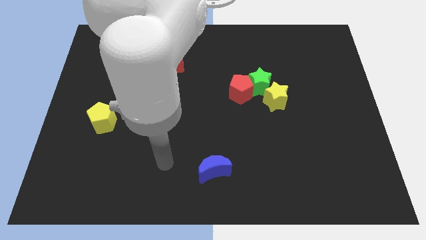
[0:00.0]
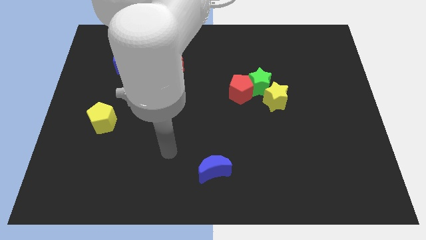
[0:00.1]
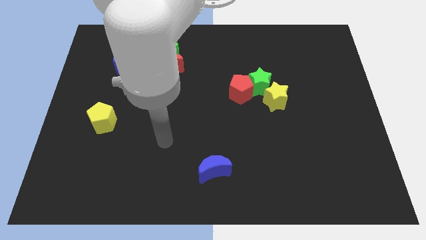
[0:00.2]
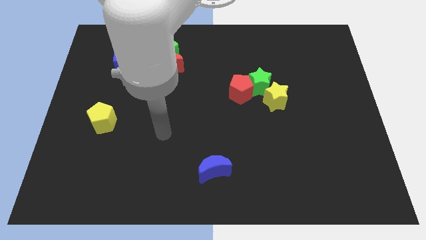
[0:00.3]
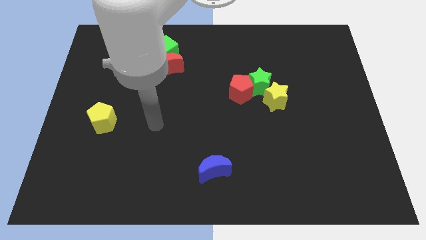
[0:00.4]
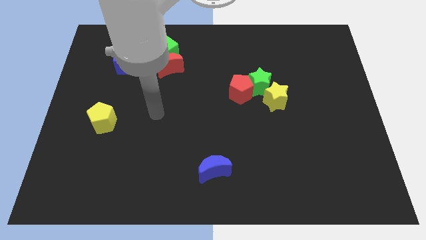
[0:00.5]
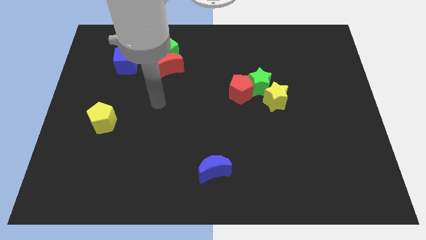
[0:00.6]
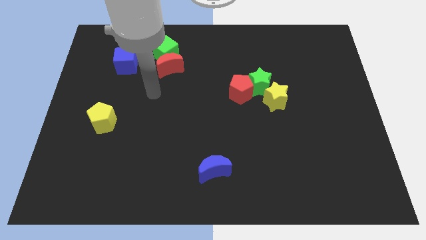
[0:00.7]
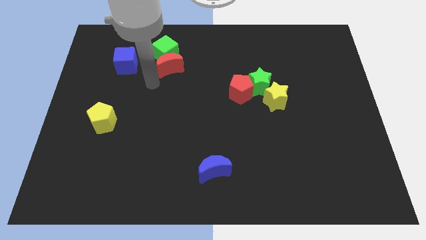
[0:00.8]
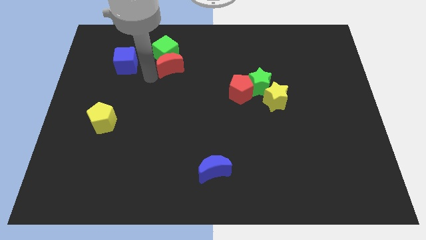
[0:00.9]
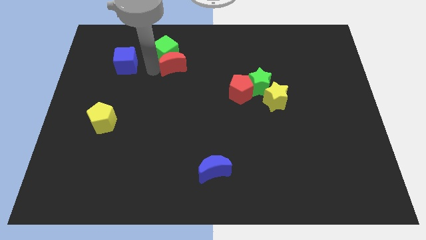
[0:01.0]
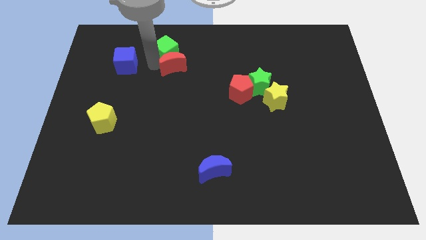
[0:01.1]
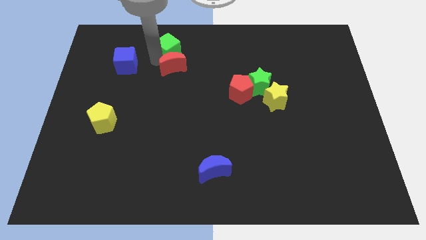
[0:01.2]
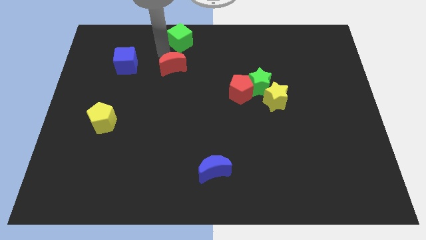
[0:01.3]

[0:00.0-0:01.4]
pull the red moon apart from the green cube

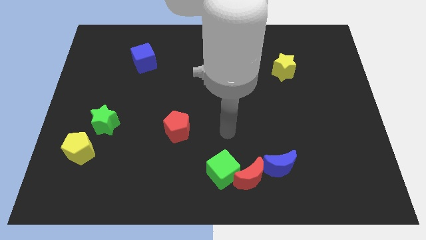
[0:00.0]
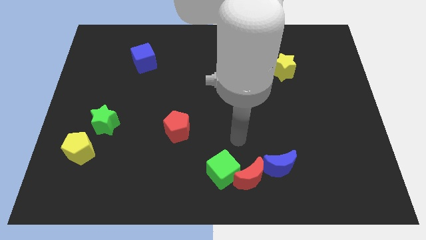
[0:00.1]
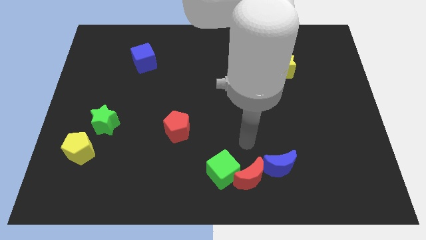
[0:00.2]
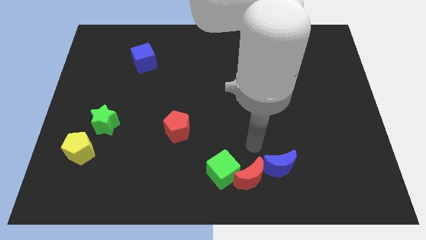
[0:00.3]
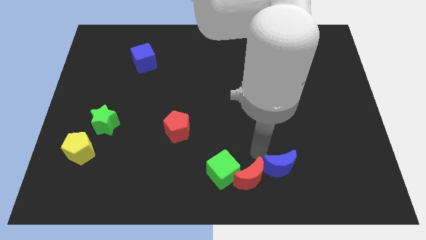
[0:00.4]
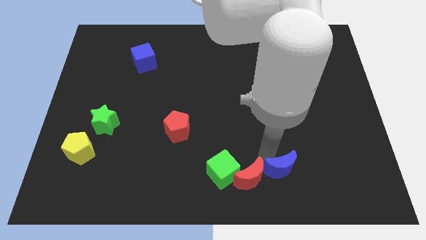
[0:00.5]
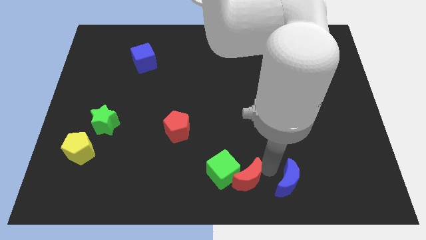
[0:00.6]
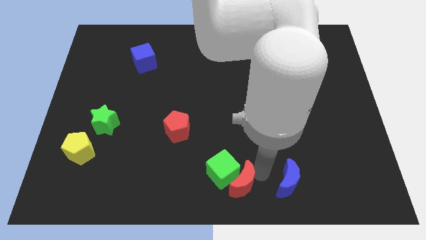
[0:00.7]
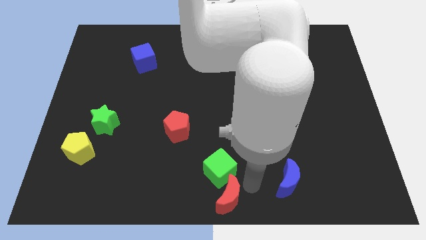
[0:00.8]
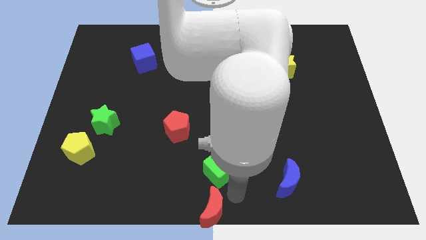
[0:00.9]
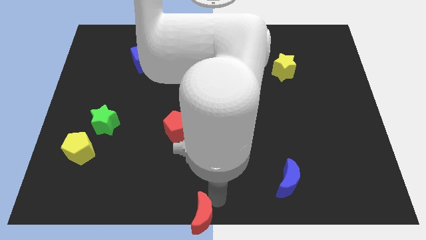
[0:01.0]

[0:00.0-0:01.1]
separate the green cube from the red moon

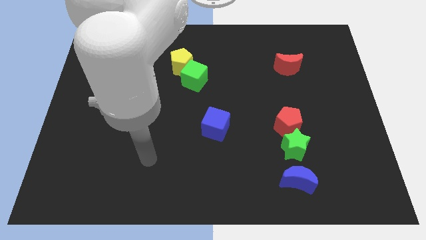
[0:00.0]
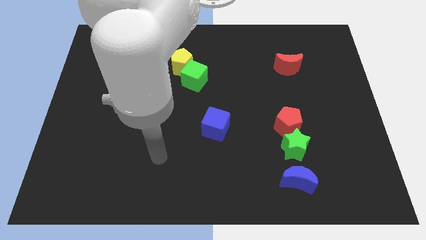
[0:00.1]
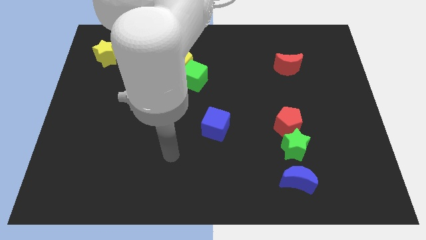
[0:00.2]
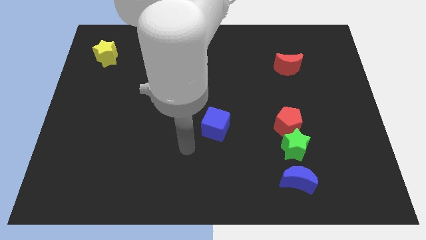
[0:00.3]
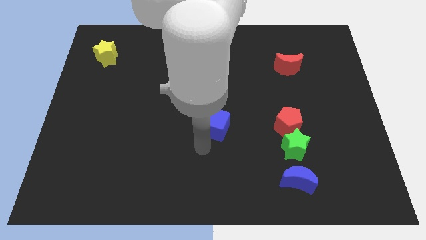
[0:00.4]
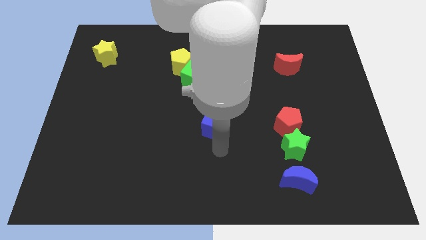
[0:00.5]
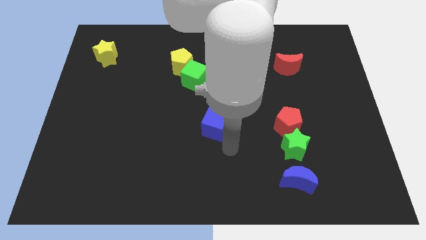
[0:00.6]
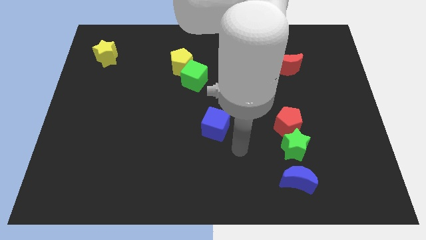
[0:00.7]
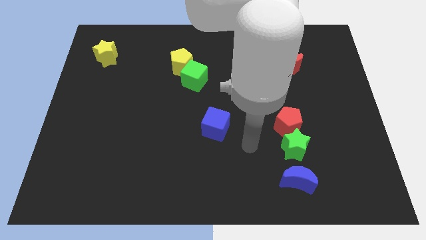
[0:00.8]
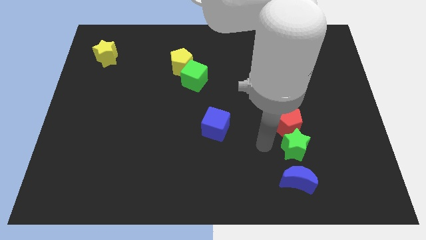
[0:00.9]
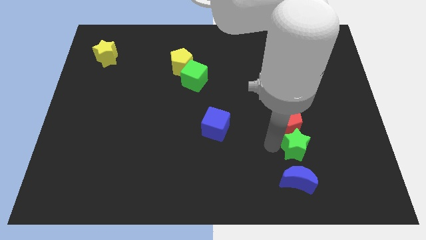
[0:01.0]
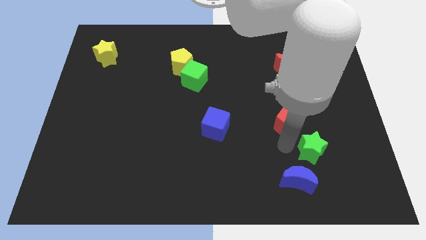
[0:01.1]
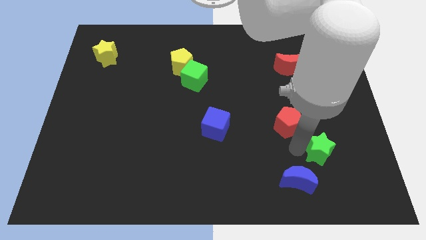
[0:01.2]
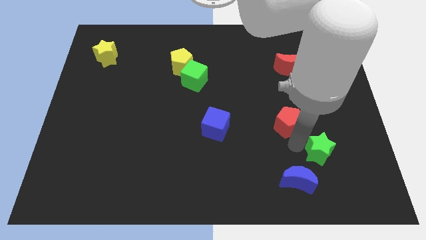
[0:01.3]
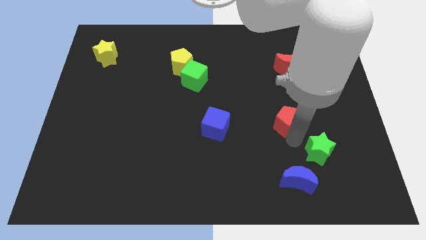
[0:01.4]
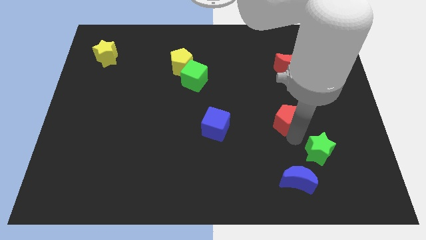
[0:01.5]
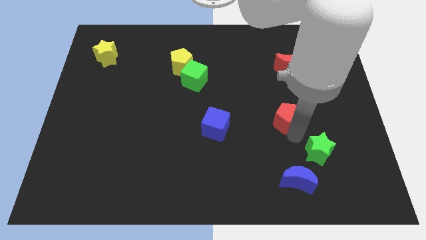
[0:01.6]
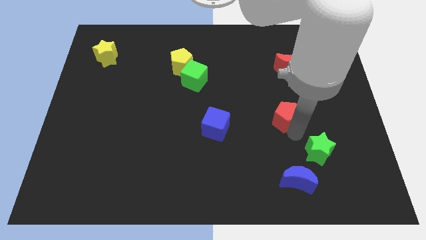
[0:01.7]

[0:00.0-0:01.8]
separate the red pentagon from the green star

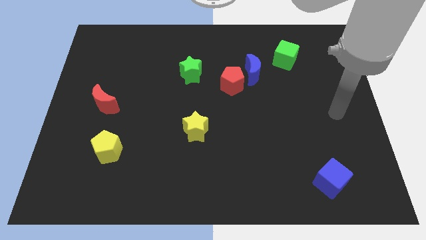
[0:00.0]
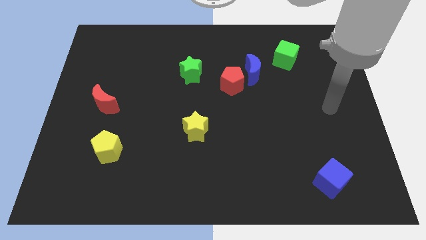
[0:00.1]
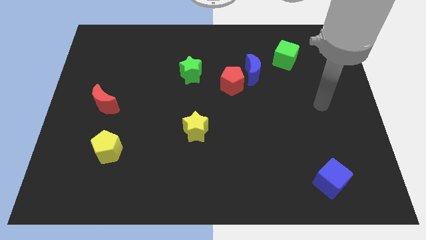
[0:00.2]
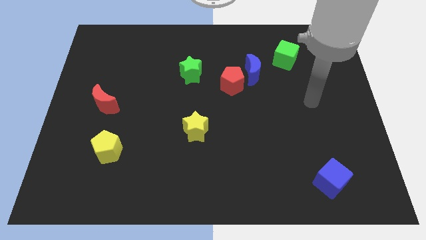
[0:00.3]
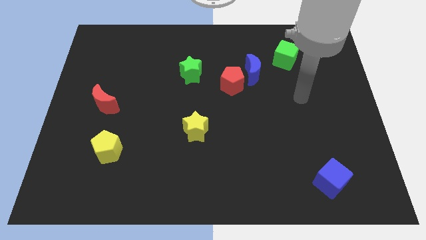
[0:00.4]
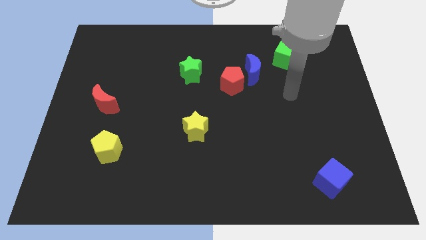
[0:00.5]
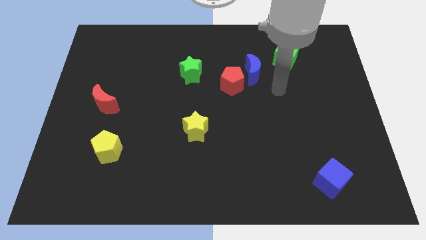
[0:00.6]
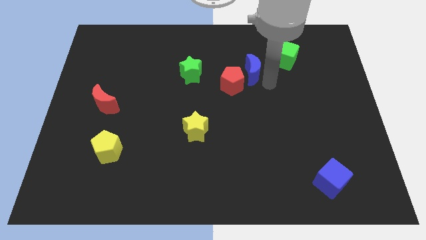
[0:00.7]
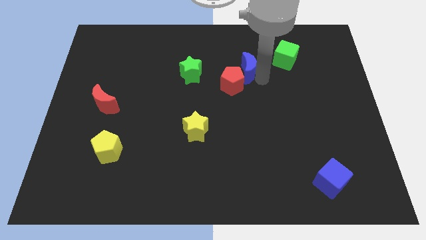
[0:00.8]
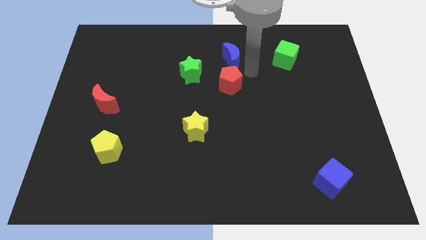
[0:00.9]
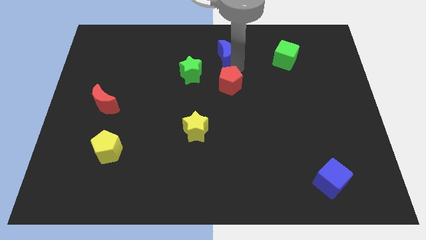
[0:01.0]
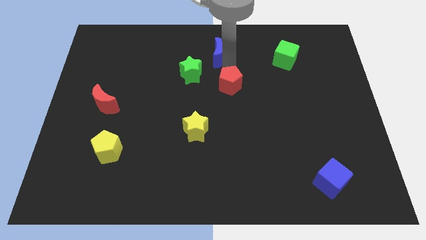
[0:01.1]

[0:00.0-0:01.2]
pull the red pentagon apart from the blue moon

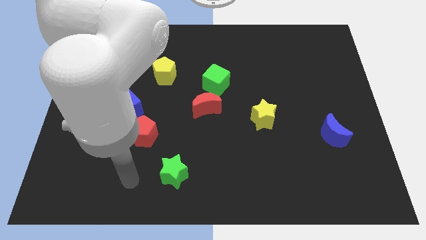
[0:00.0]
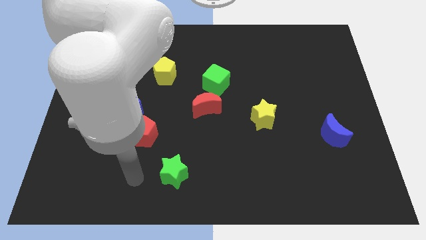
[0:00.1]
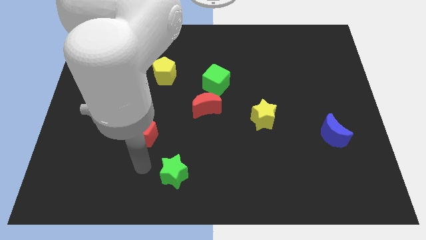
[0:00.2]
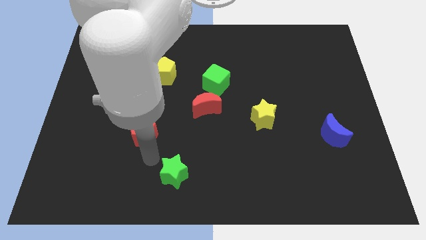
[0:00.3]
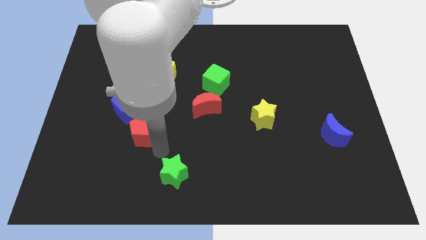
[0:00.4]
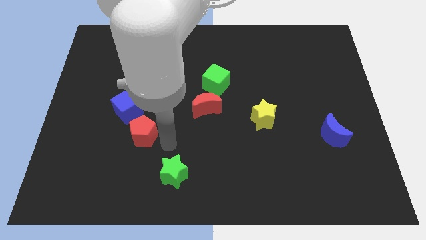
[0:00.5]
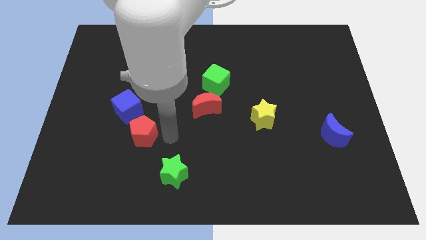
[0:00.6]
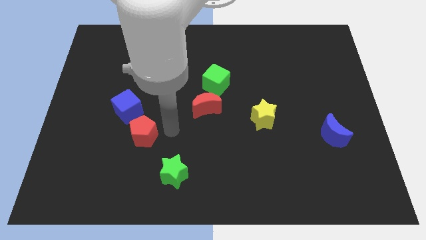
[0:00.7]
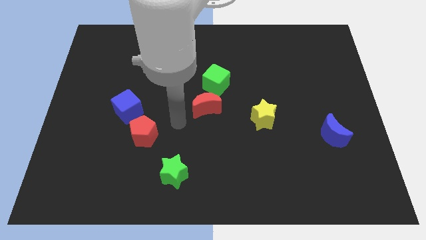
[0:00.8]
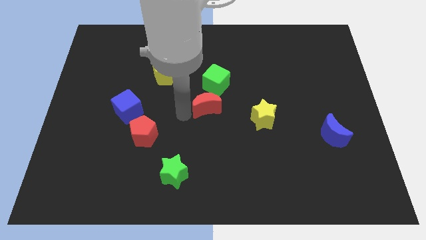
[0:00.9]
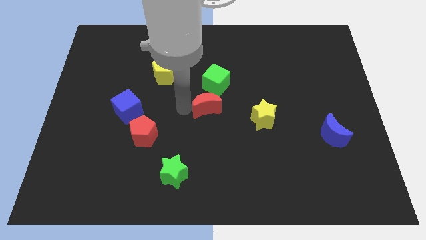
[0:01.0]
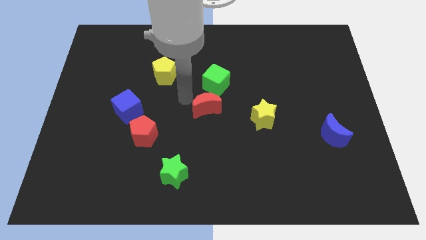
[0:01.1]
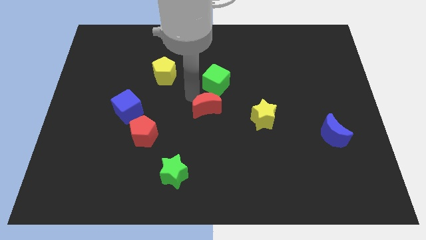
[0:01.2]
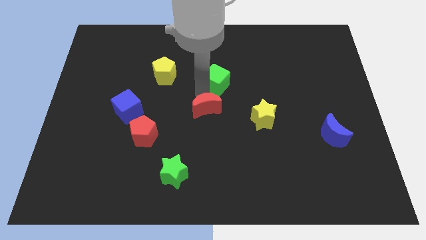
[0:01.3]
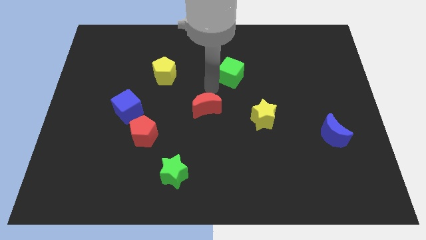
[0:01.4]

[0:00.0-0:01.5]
separate the red moon from the green cube

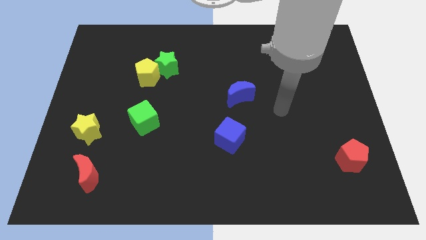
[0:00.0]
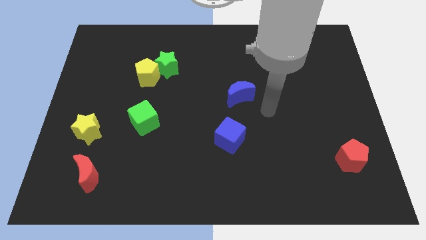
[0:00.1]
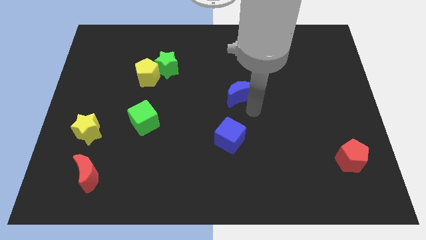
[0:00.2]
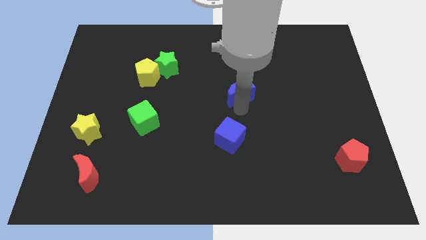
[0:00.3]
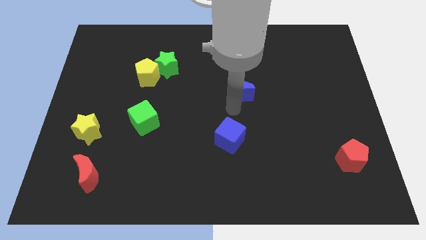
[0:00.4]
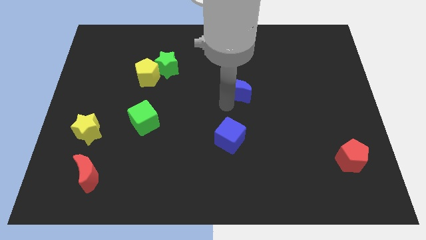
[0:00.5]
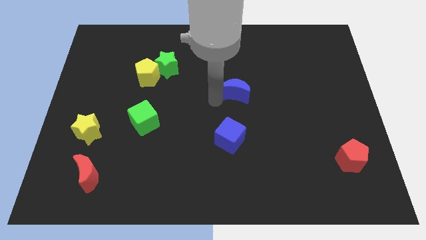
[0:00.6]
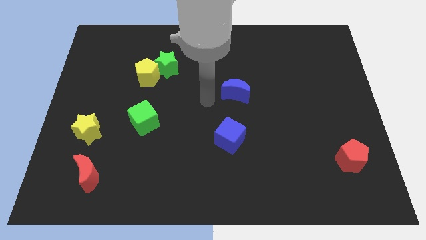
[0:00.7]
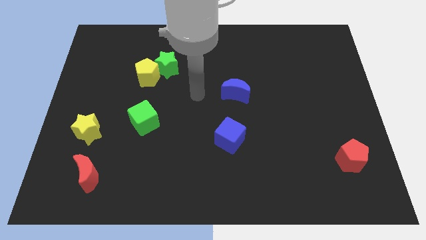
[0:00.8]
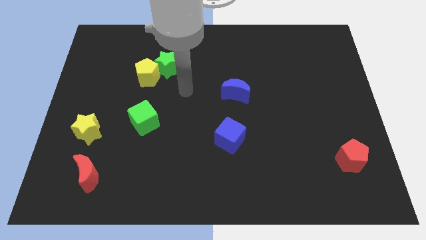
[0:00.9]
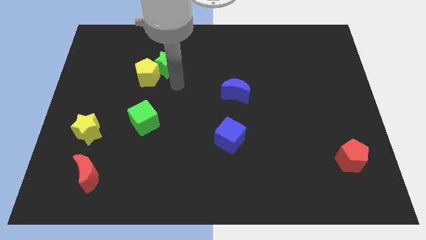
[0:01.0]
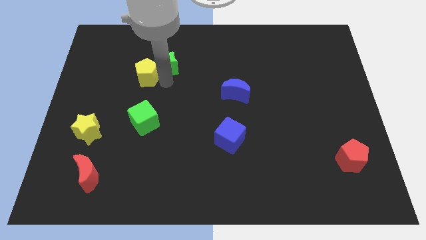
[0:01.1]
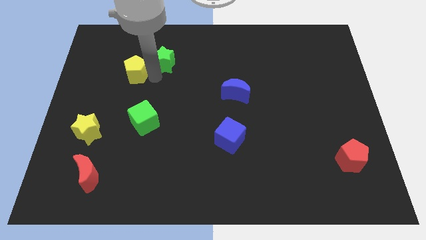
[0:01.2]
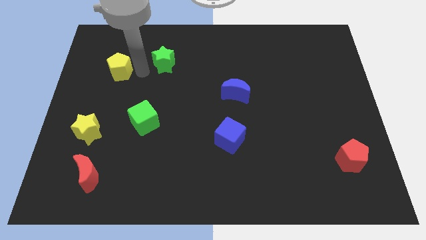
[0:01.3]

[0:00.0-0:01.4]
separate the green star from the yellow pentagon

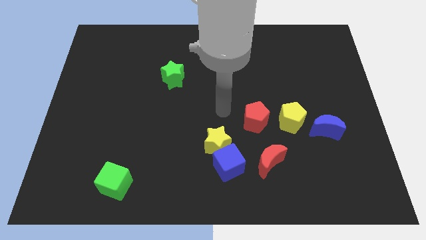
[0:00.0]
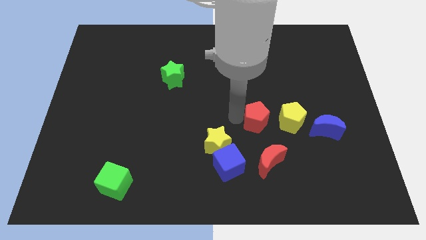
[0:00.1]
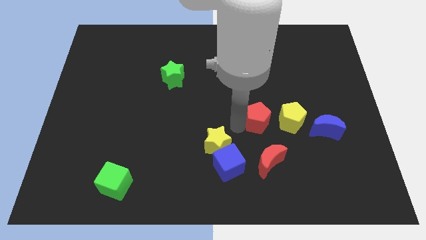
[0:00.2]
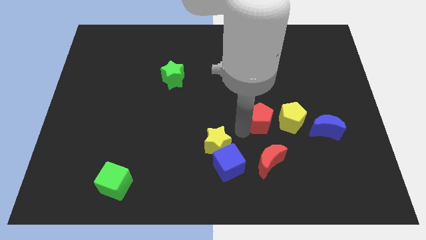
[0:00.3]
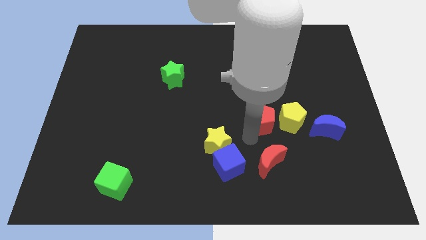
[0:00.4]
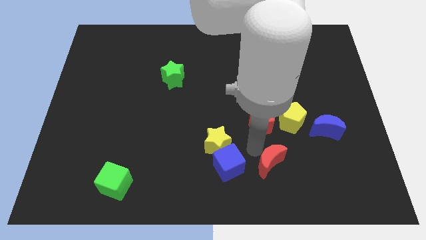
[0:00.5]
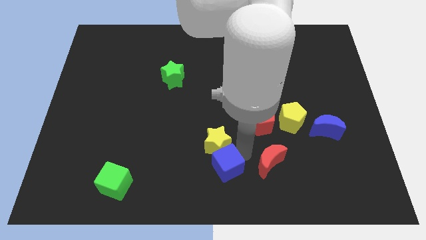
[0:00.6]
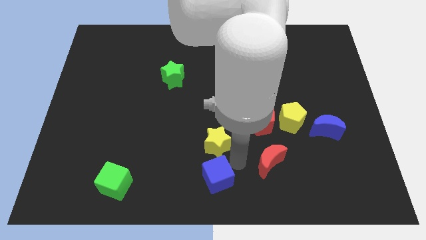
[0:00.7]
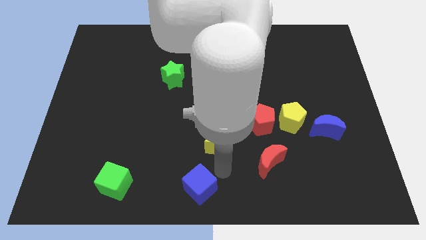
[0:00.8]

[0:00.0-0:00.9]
move the yellow star away from the blue cube
